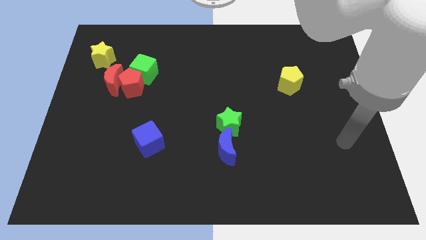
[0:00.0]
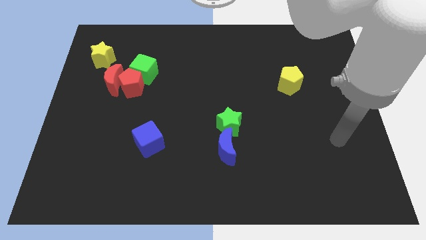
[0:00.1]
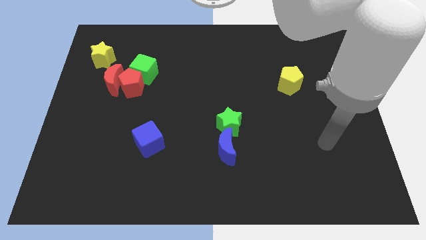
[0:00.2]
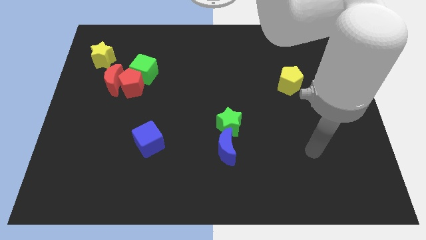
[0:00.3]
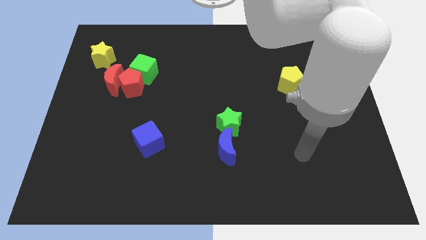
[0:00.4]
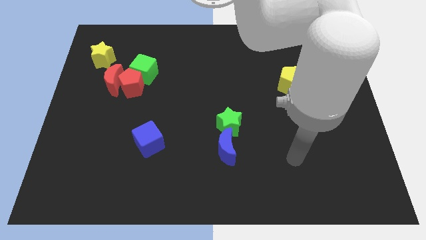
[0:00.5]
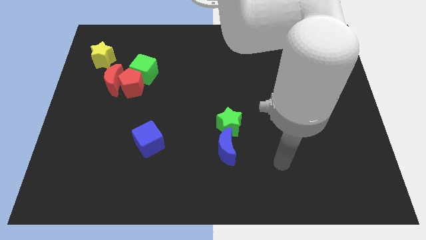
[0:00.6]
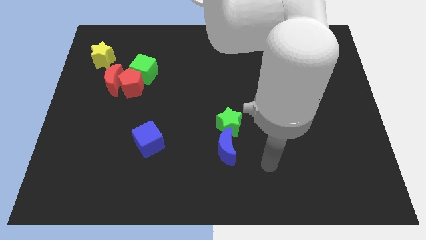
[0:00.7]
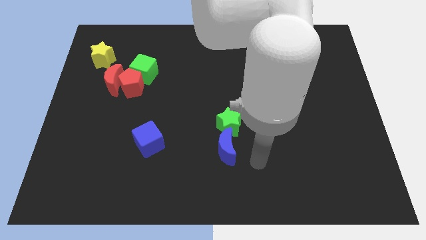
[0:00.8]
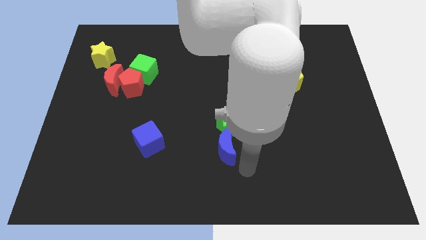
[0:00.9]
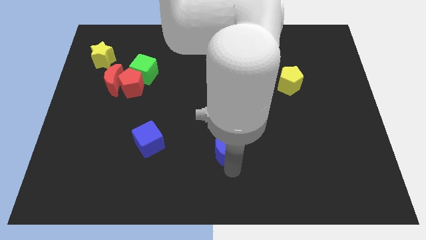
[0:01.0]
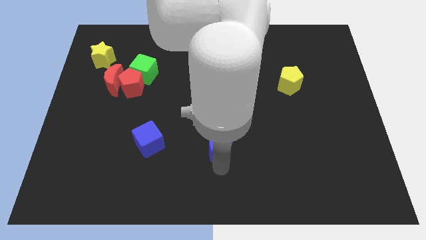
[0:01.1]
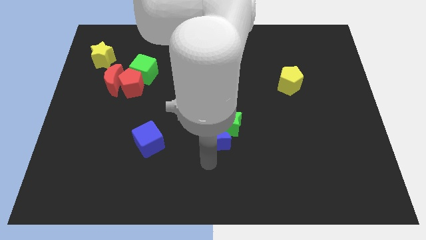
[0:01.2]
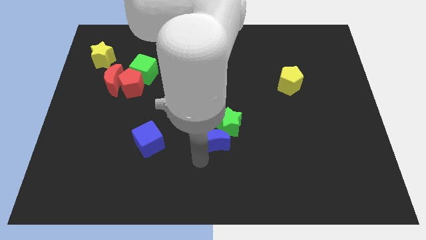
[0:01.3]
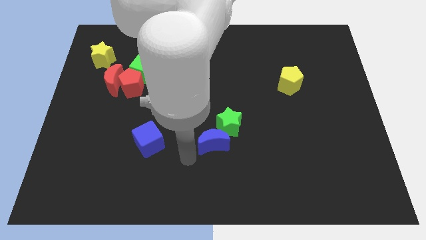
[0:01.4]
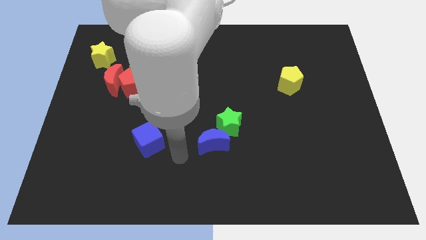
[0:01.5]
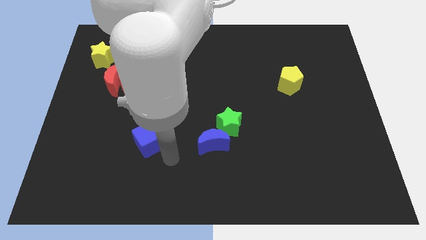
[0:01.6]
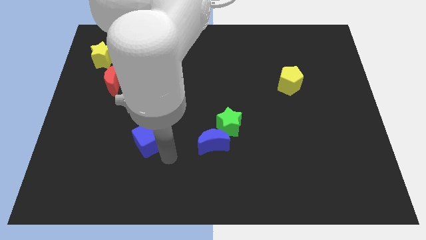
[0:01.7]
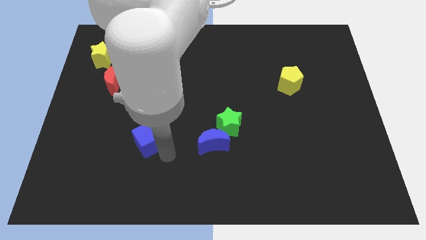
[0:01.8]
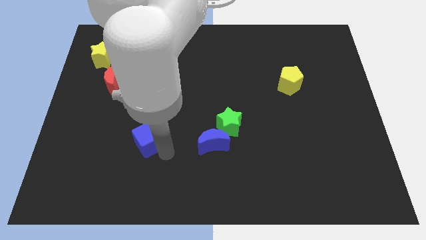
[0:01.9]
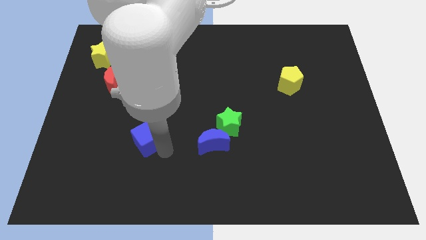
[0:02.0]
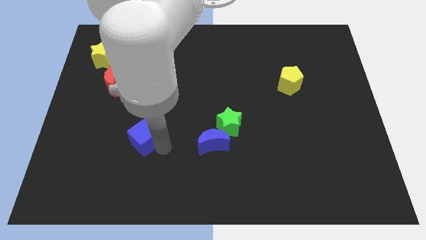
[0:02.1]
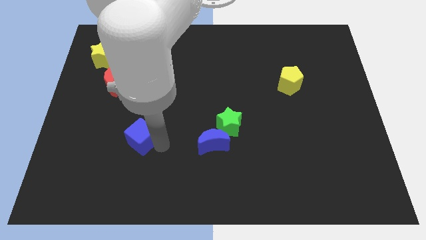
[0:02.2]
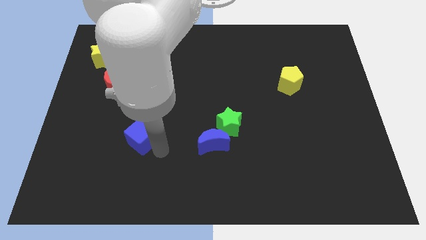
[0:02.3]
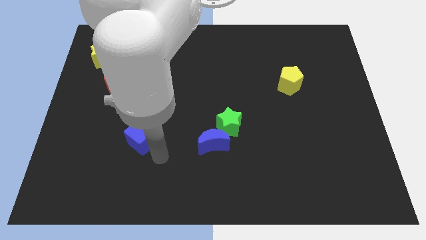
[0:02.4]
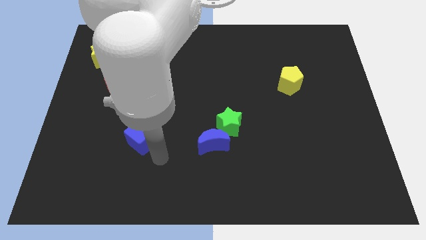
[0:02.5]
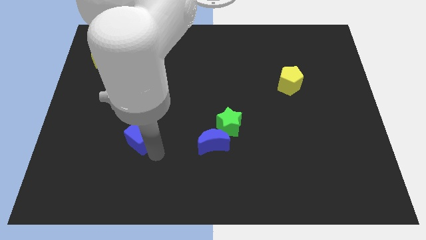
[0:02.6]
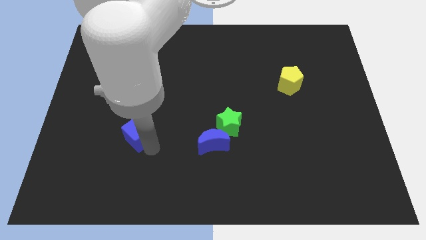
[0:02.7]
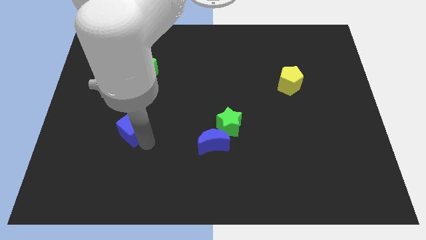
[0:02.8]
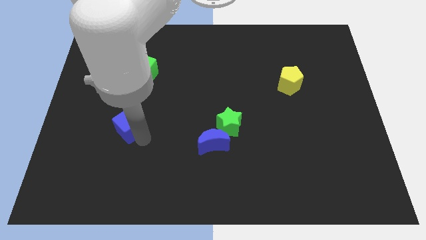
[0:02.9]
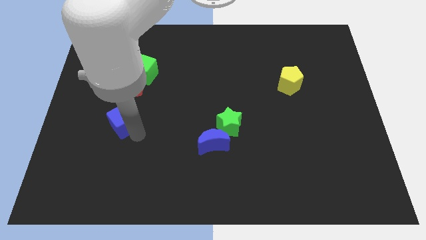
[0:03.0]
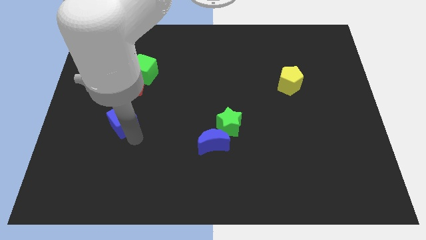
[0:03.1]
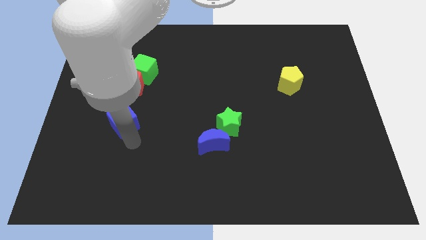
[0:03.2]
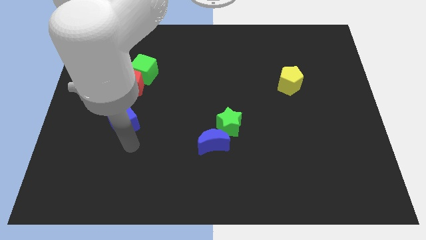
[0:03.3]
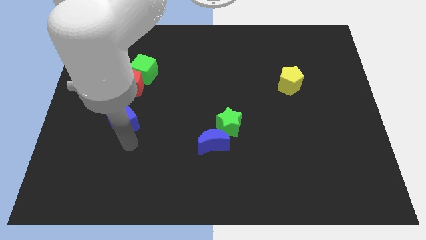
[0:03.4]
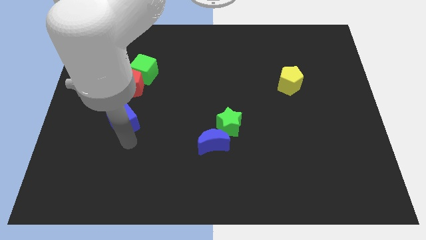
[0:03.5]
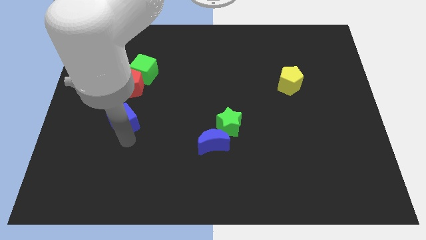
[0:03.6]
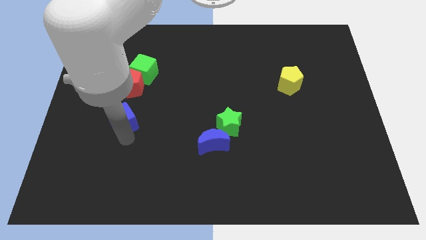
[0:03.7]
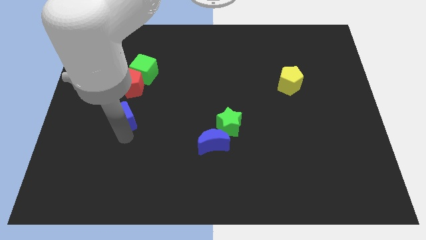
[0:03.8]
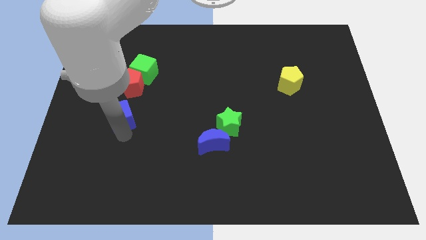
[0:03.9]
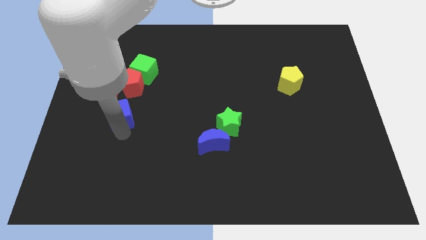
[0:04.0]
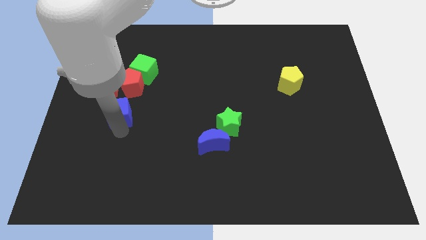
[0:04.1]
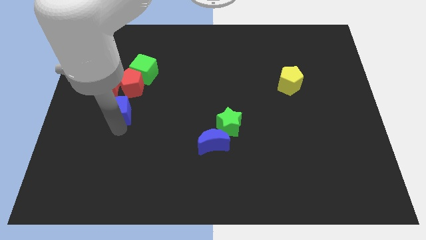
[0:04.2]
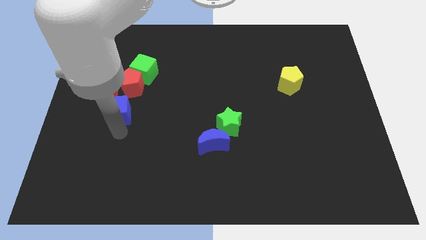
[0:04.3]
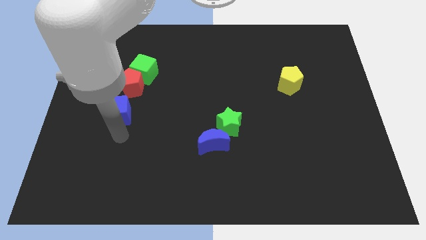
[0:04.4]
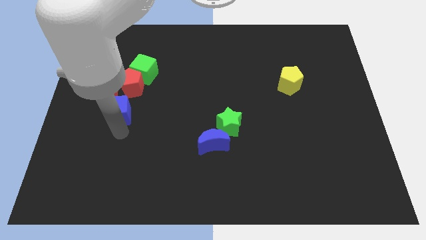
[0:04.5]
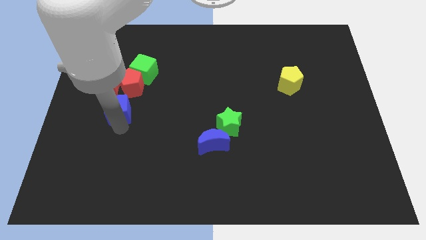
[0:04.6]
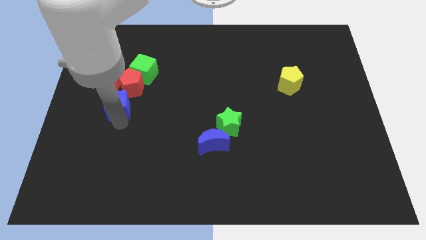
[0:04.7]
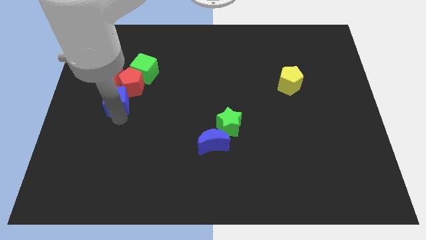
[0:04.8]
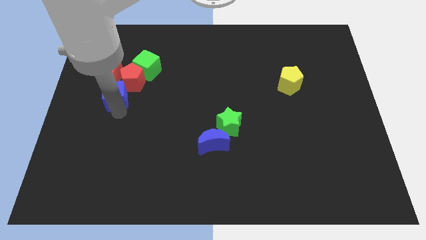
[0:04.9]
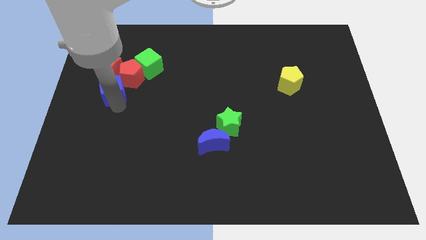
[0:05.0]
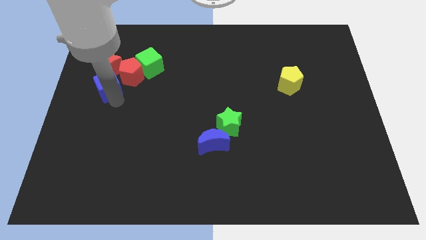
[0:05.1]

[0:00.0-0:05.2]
put the blue cube close to the red moon

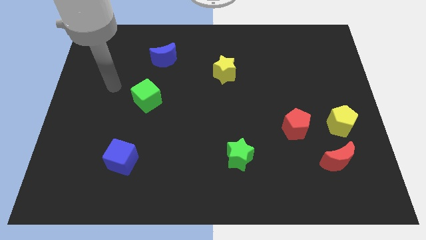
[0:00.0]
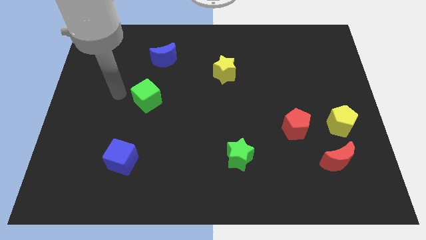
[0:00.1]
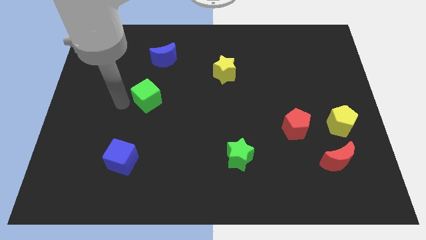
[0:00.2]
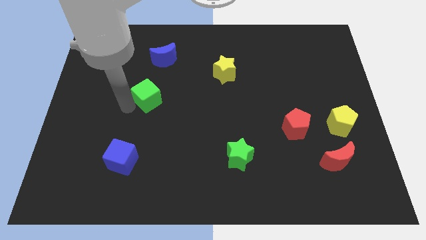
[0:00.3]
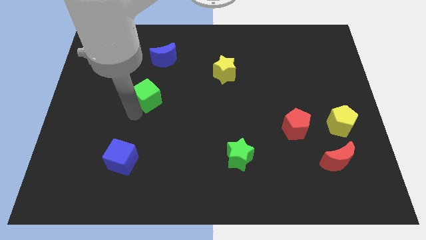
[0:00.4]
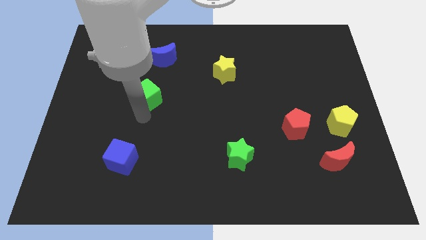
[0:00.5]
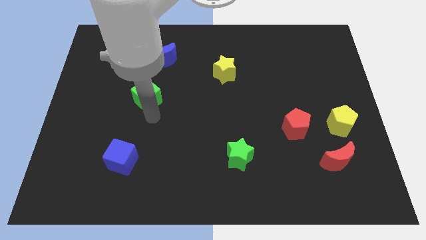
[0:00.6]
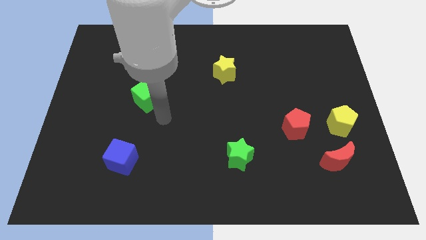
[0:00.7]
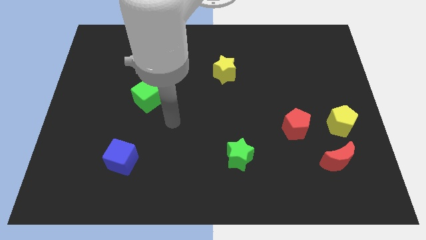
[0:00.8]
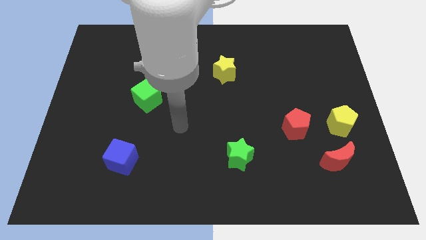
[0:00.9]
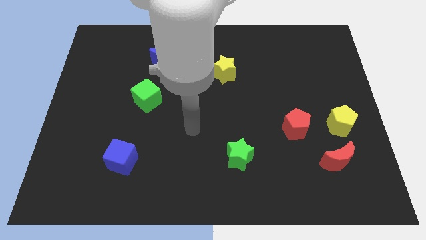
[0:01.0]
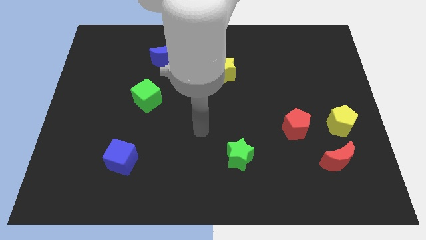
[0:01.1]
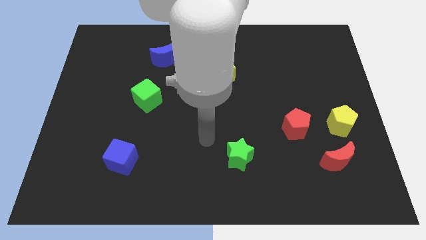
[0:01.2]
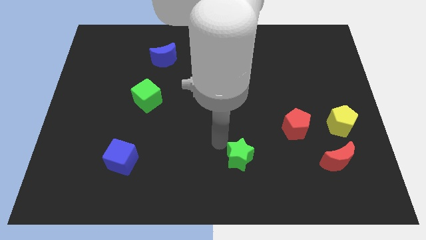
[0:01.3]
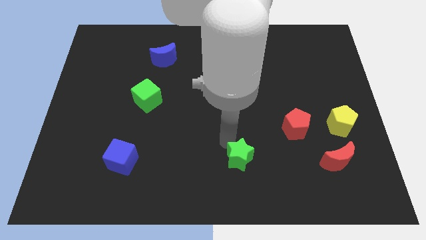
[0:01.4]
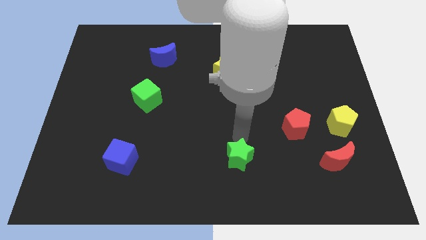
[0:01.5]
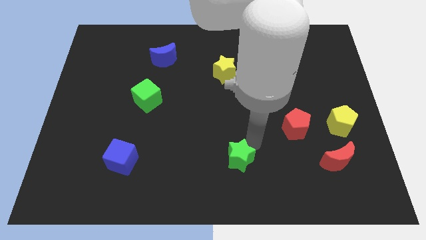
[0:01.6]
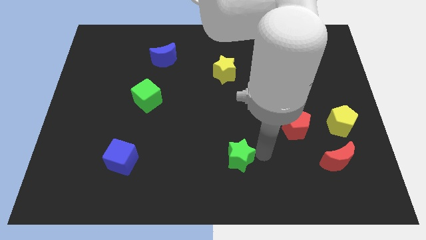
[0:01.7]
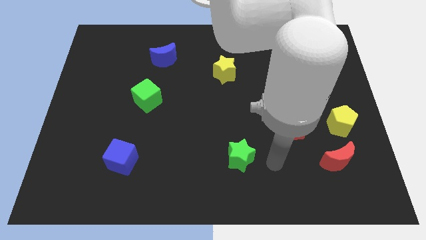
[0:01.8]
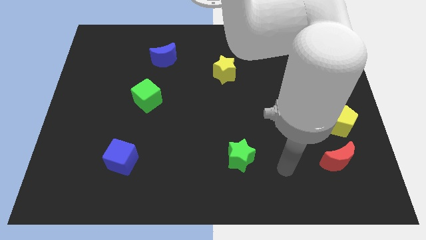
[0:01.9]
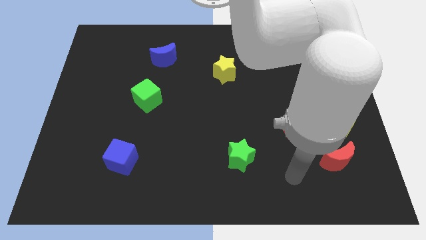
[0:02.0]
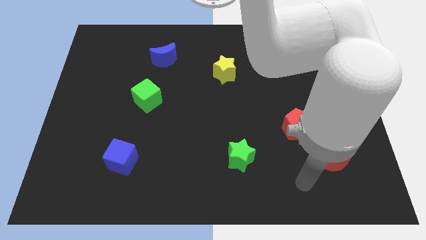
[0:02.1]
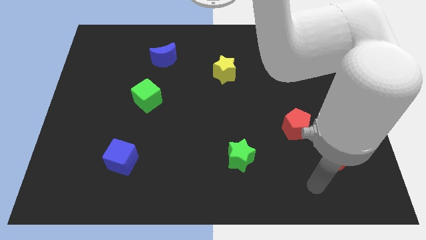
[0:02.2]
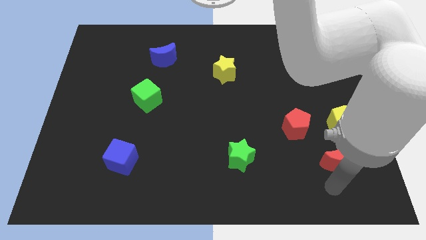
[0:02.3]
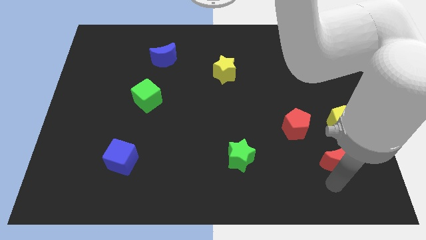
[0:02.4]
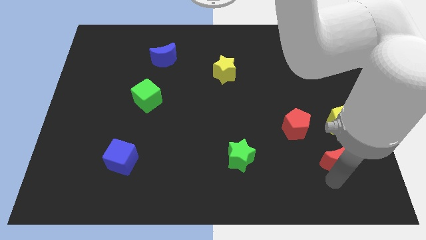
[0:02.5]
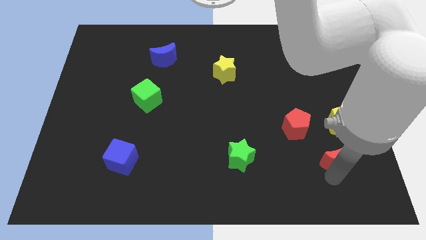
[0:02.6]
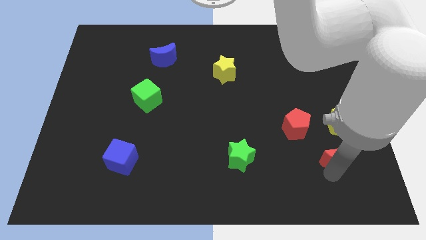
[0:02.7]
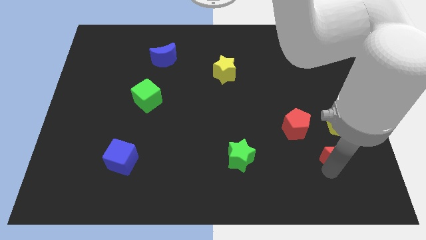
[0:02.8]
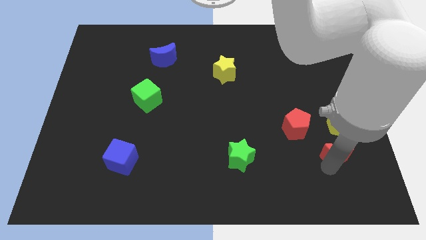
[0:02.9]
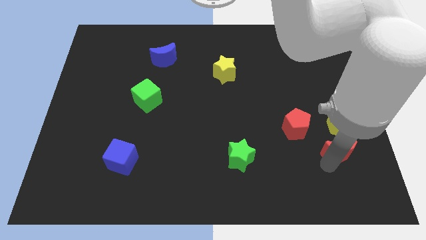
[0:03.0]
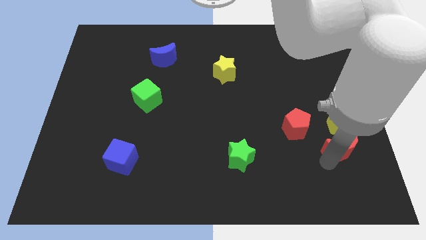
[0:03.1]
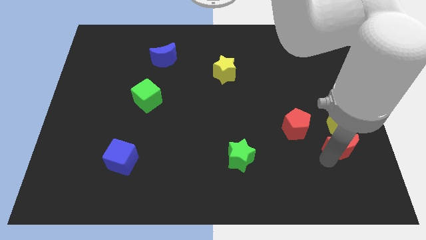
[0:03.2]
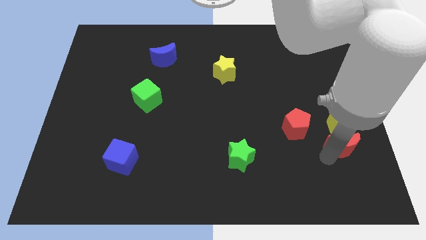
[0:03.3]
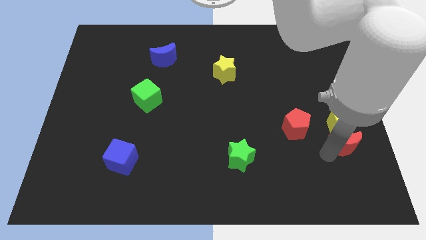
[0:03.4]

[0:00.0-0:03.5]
put the red moon towards the yellow pentagon
